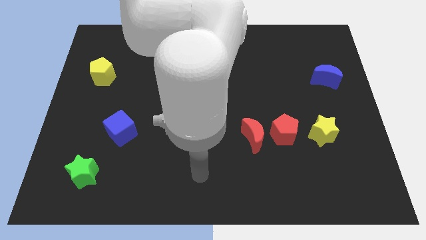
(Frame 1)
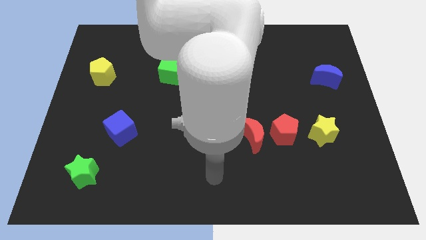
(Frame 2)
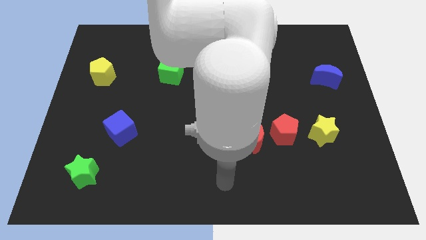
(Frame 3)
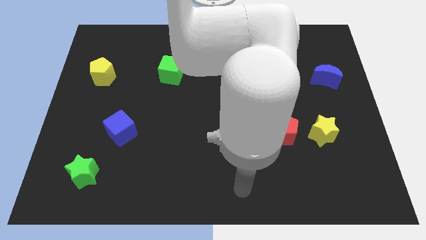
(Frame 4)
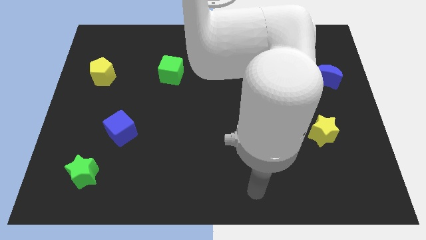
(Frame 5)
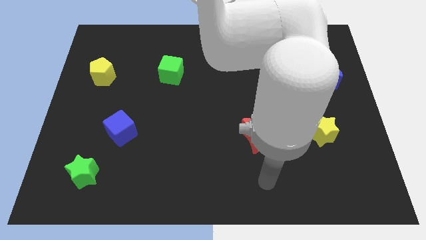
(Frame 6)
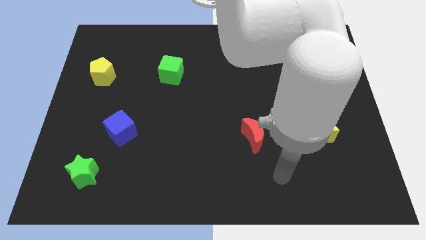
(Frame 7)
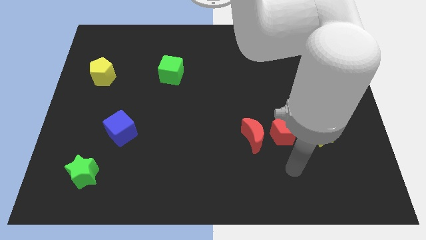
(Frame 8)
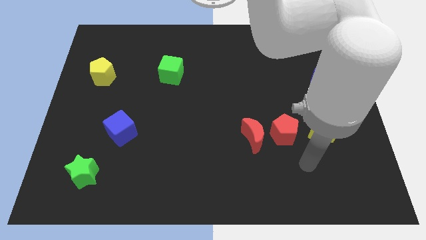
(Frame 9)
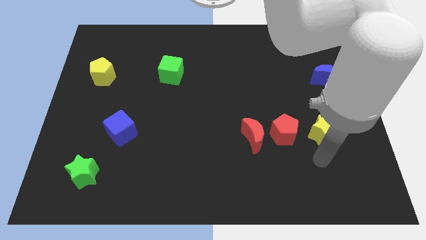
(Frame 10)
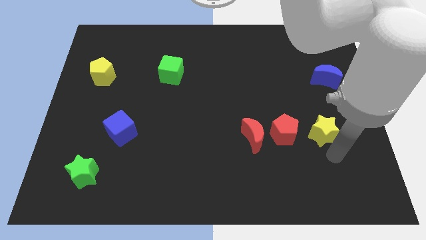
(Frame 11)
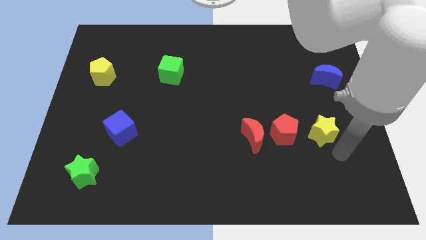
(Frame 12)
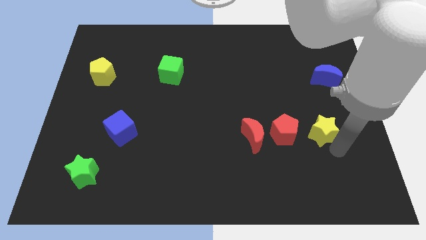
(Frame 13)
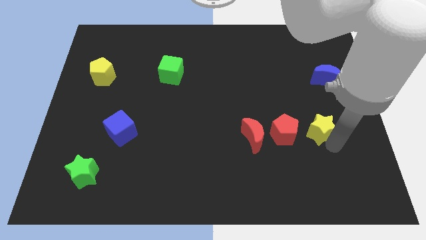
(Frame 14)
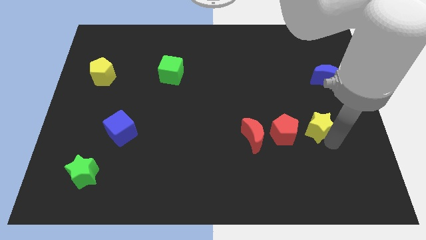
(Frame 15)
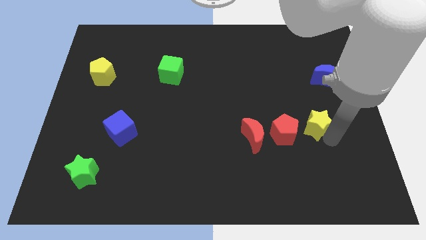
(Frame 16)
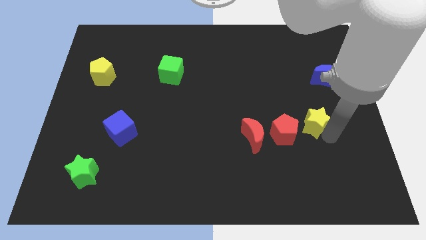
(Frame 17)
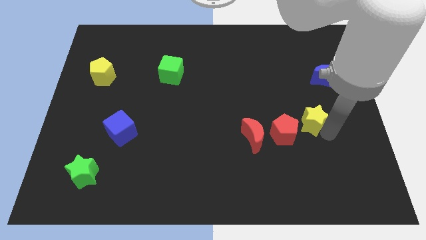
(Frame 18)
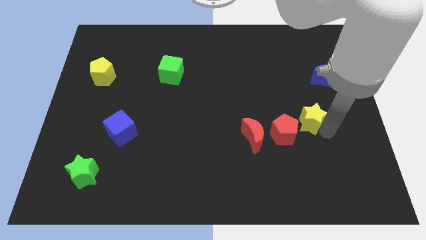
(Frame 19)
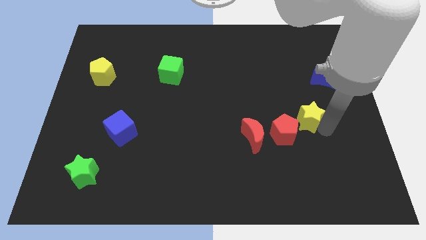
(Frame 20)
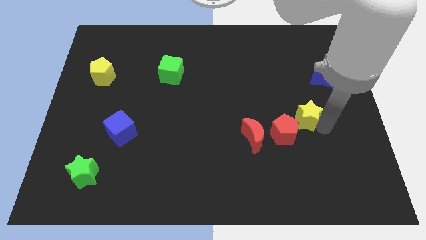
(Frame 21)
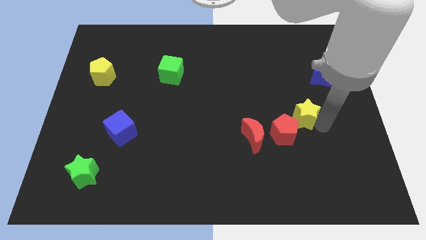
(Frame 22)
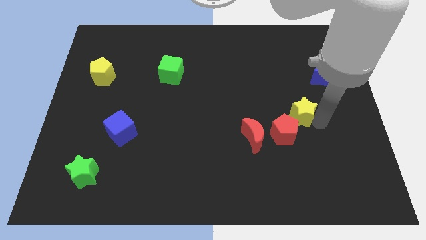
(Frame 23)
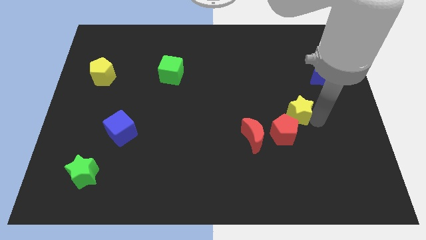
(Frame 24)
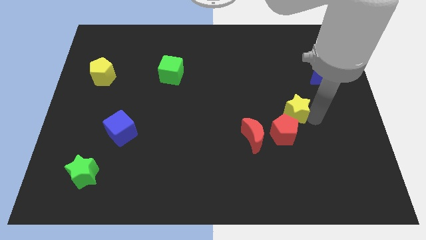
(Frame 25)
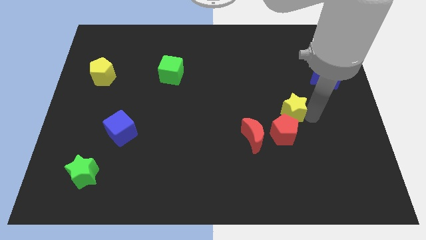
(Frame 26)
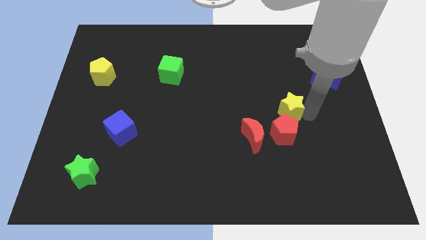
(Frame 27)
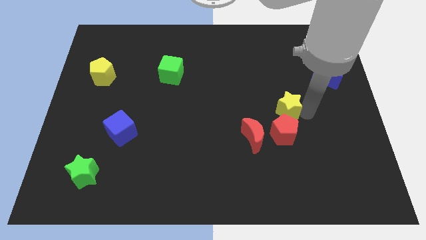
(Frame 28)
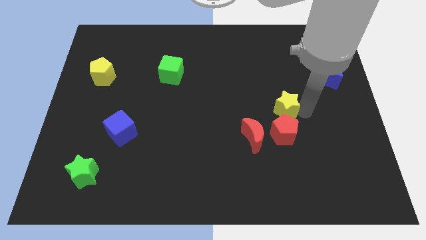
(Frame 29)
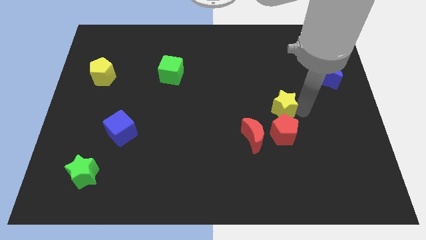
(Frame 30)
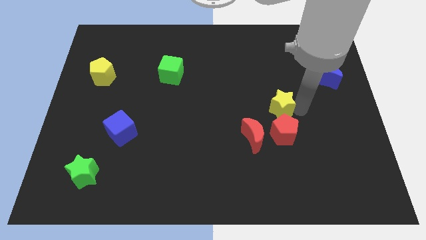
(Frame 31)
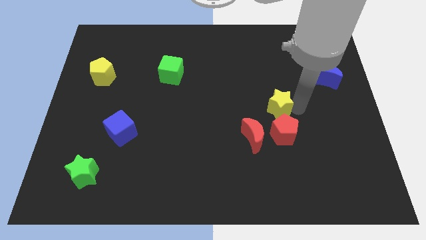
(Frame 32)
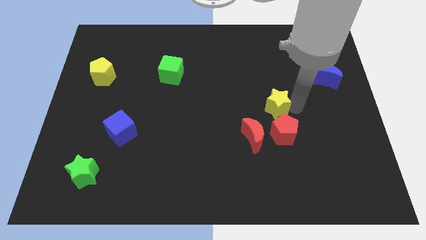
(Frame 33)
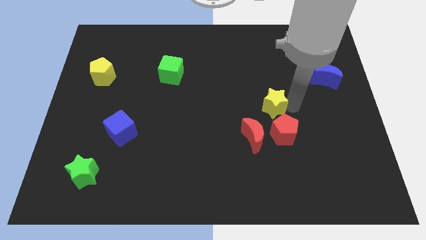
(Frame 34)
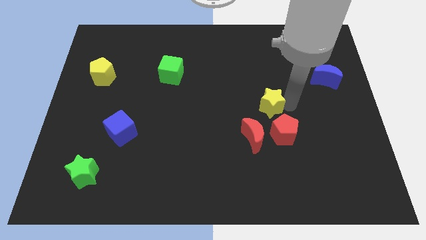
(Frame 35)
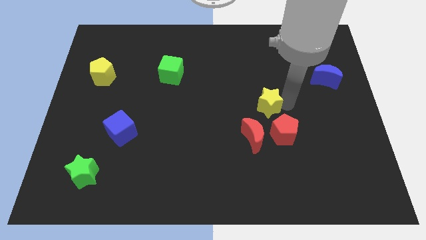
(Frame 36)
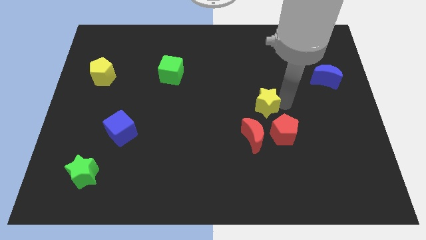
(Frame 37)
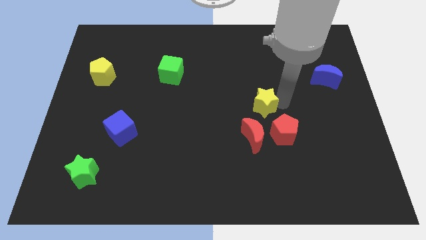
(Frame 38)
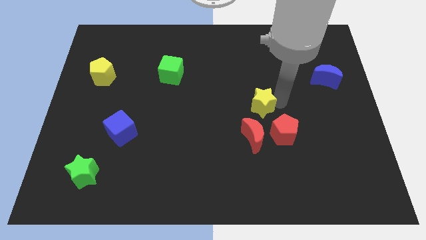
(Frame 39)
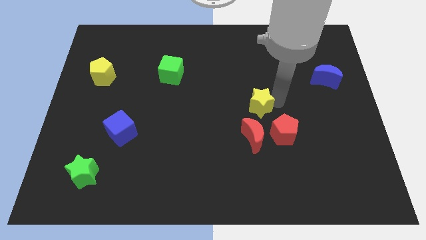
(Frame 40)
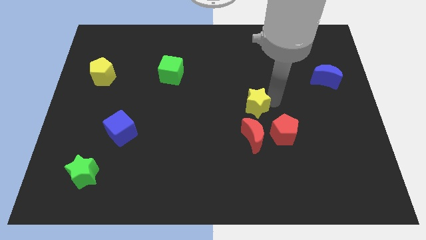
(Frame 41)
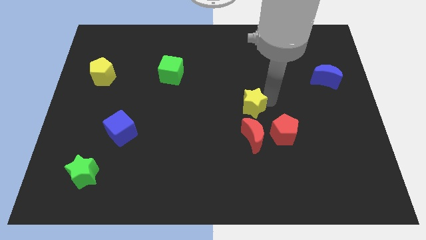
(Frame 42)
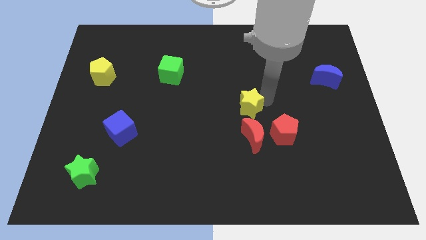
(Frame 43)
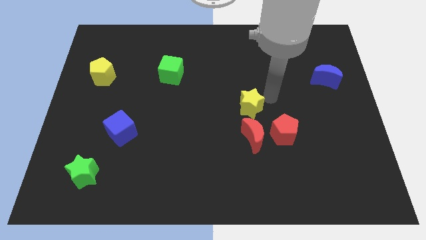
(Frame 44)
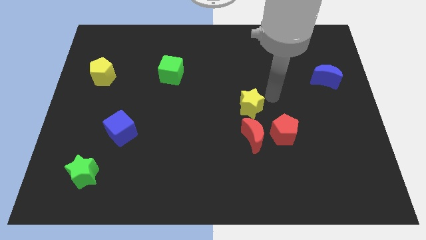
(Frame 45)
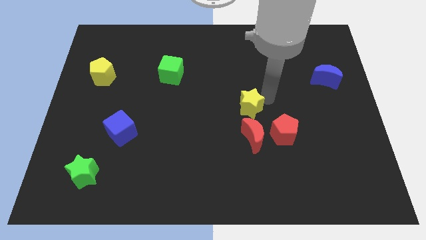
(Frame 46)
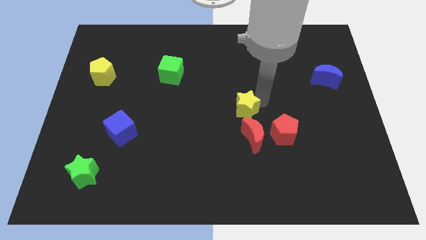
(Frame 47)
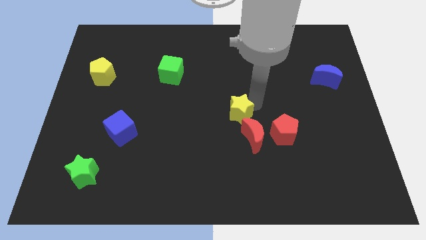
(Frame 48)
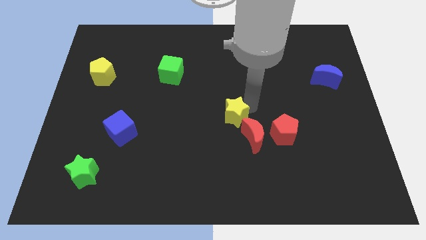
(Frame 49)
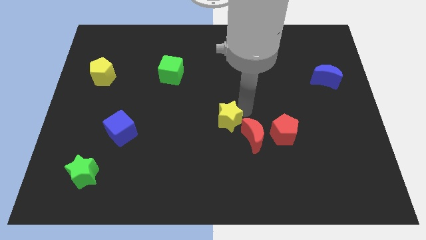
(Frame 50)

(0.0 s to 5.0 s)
slide the yellow star to the left

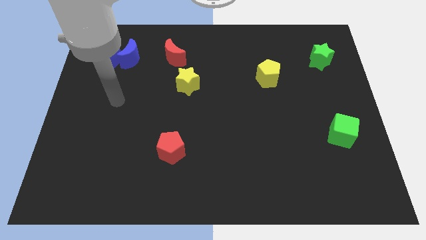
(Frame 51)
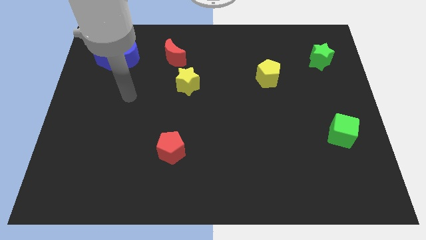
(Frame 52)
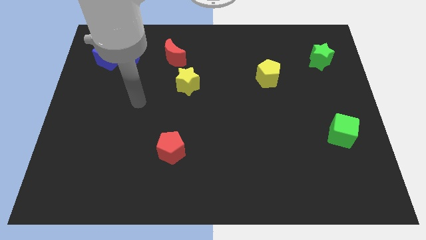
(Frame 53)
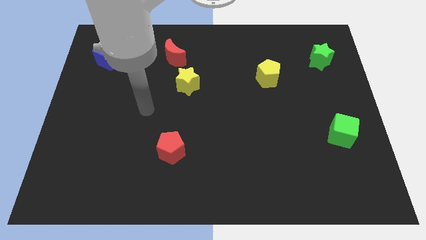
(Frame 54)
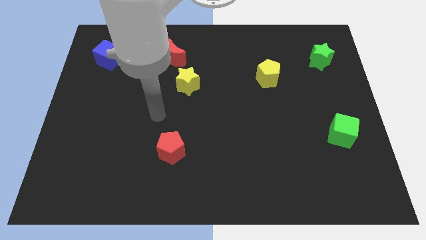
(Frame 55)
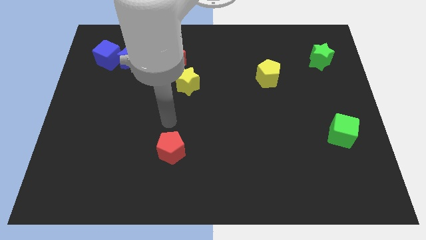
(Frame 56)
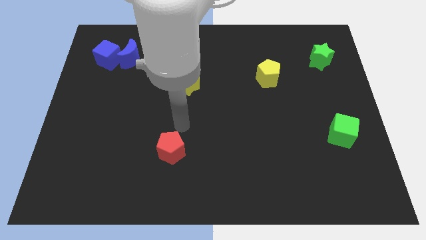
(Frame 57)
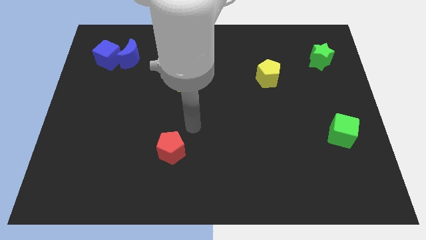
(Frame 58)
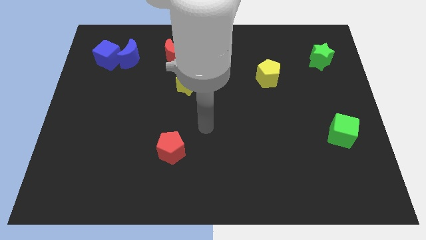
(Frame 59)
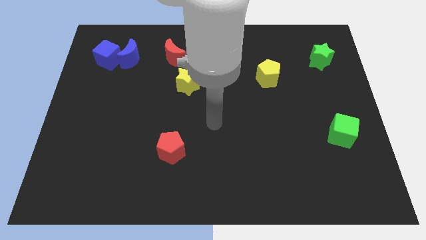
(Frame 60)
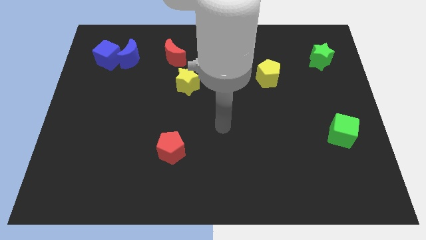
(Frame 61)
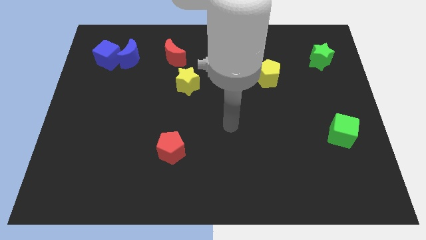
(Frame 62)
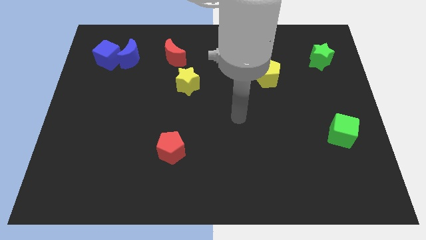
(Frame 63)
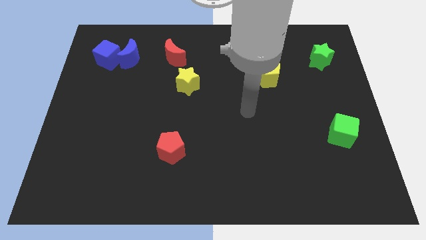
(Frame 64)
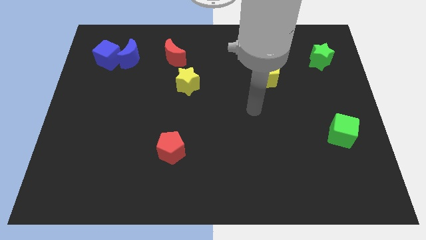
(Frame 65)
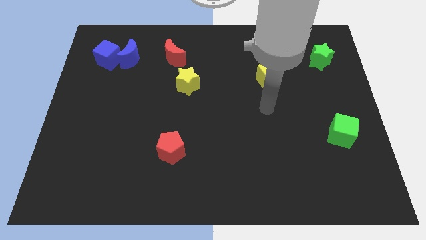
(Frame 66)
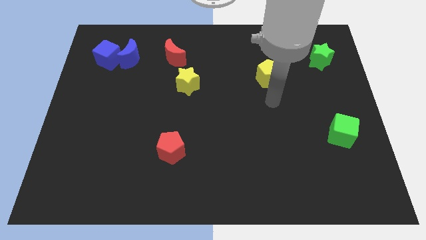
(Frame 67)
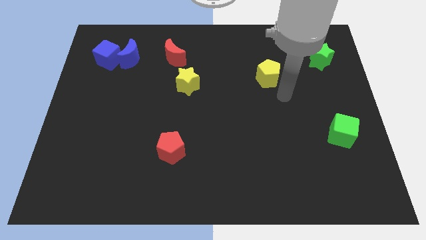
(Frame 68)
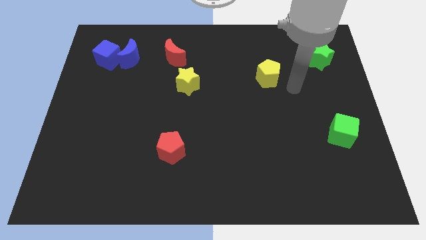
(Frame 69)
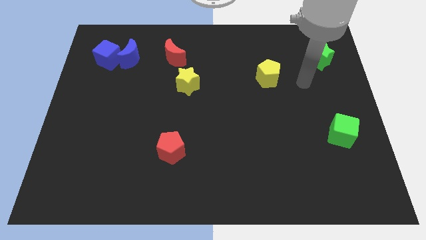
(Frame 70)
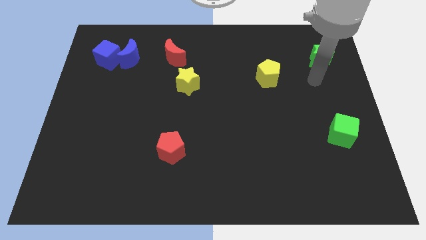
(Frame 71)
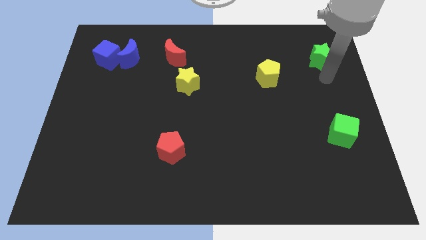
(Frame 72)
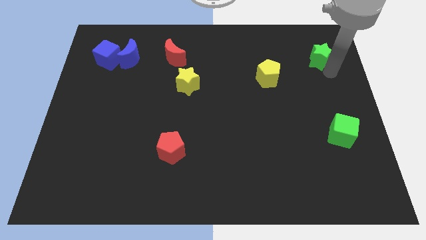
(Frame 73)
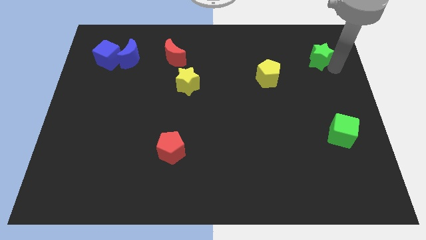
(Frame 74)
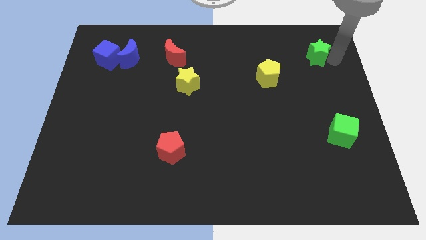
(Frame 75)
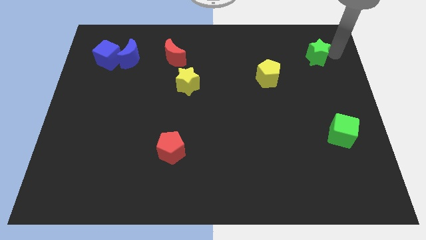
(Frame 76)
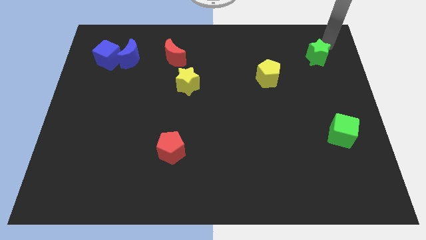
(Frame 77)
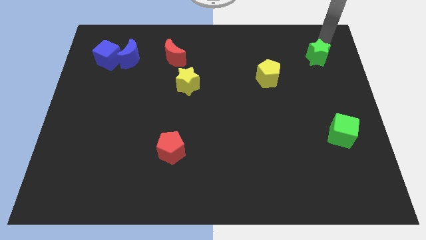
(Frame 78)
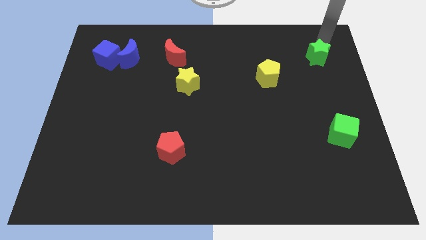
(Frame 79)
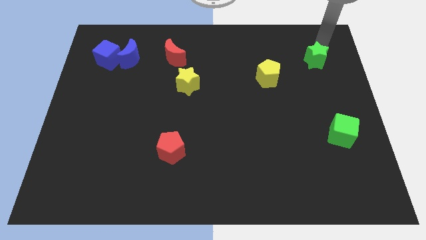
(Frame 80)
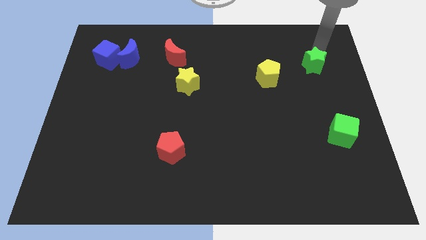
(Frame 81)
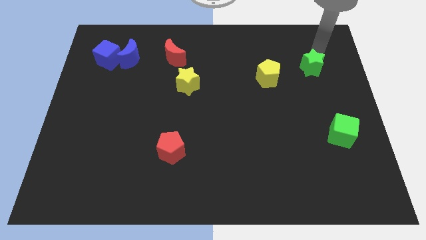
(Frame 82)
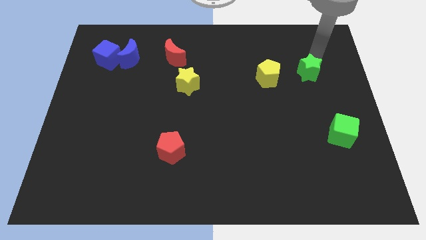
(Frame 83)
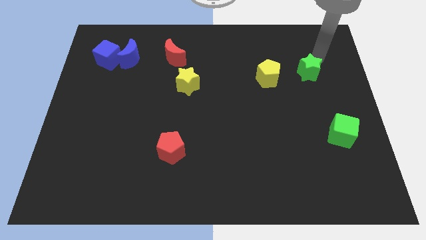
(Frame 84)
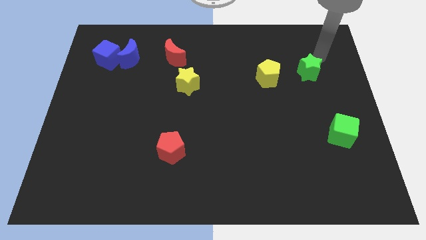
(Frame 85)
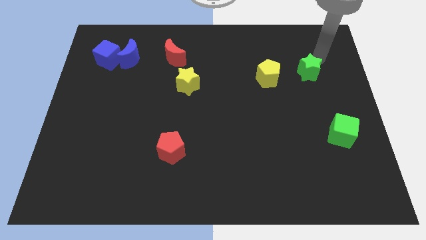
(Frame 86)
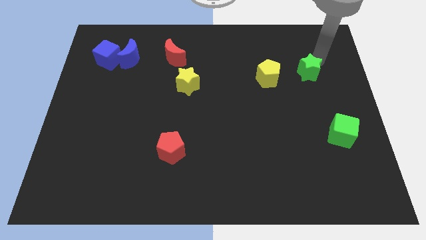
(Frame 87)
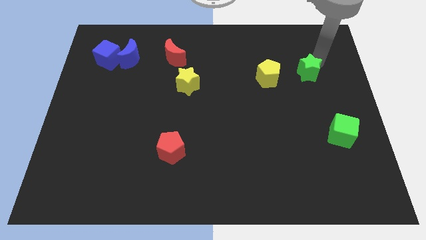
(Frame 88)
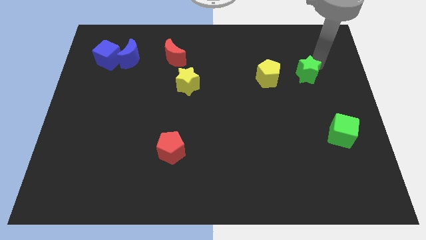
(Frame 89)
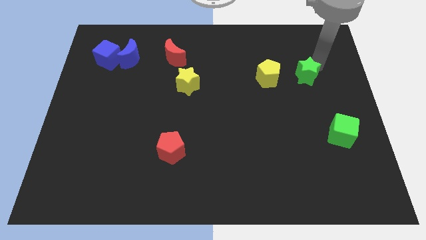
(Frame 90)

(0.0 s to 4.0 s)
slide the green star slightly diagonally downwards and left
